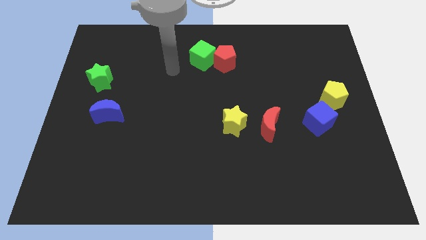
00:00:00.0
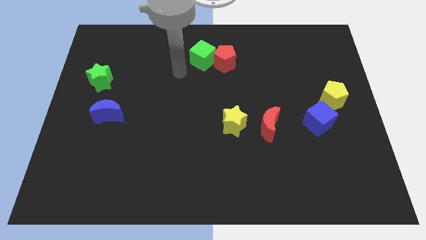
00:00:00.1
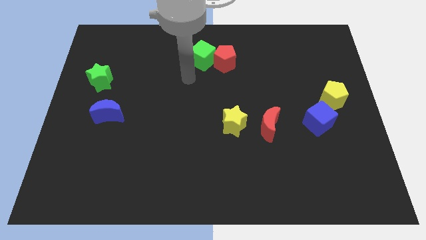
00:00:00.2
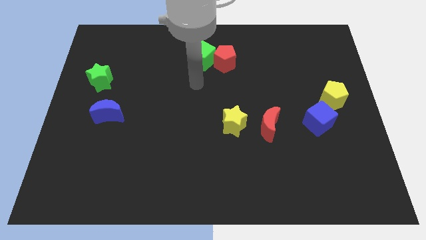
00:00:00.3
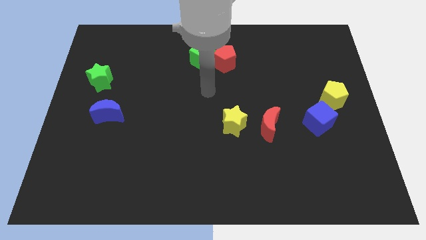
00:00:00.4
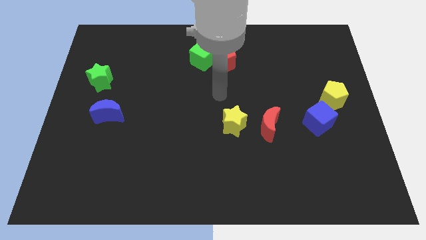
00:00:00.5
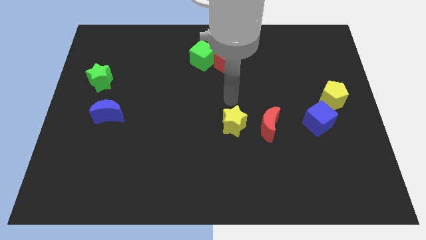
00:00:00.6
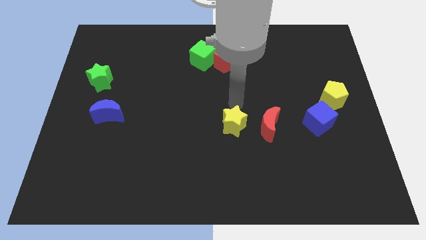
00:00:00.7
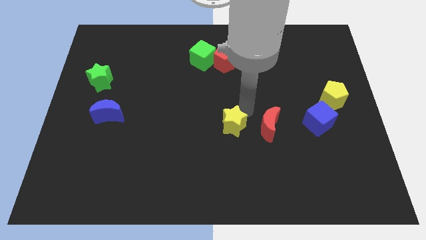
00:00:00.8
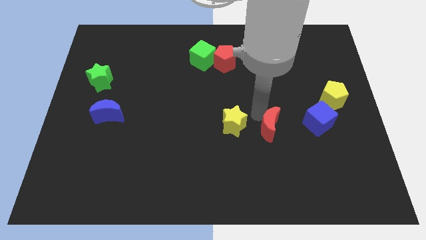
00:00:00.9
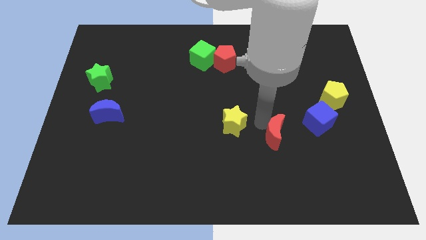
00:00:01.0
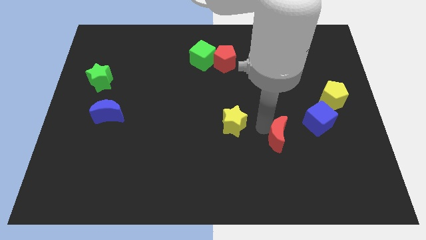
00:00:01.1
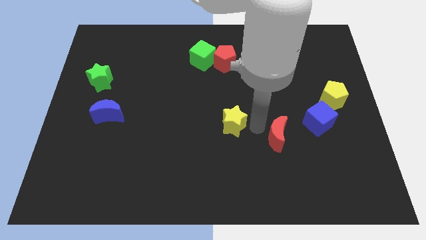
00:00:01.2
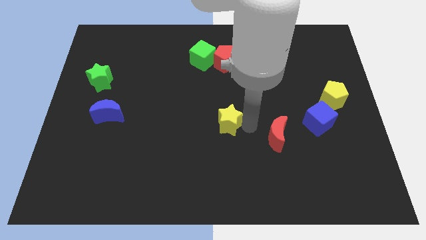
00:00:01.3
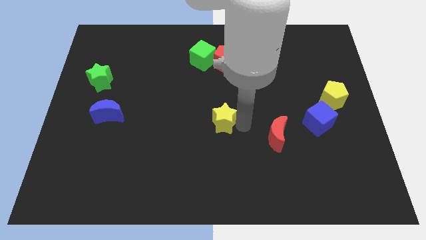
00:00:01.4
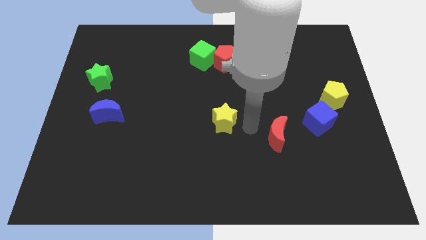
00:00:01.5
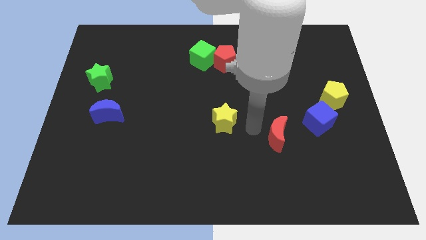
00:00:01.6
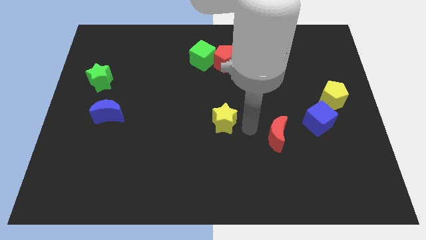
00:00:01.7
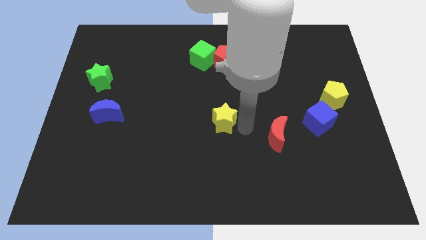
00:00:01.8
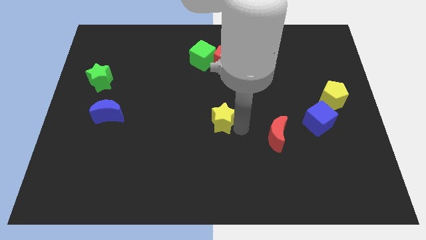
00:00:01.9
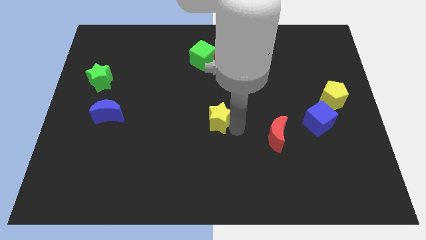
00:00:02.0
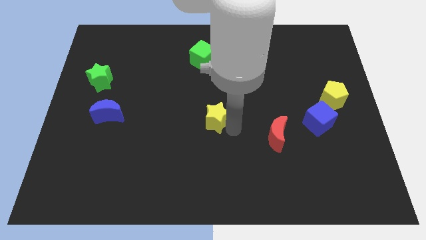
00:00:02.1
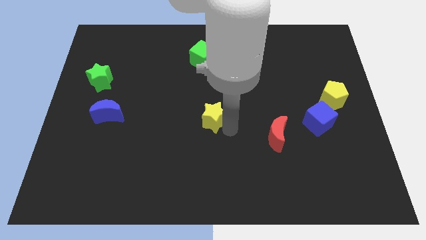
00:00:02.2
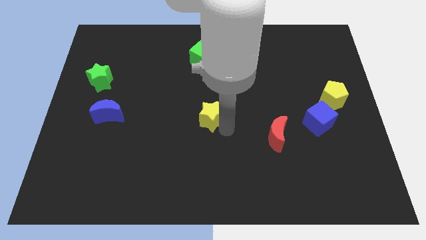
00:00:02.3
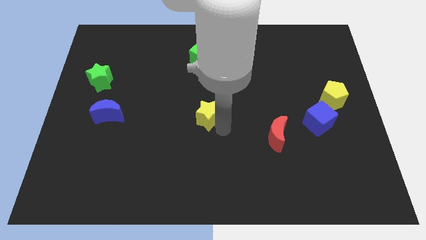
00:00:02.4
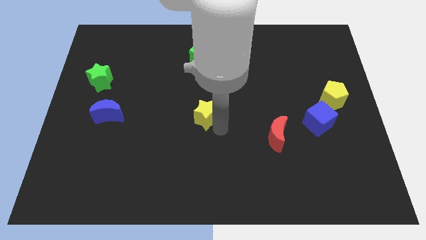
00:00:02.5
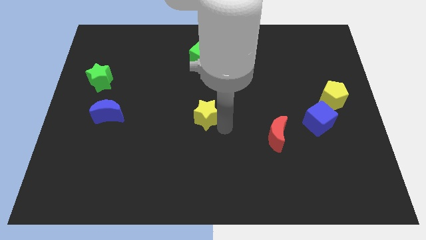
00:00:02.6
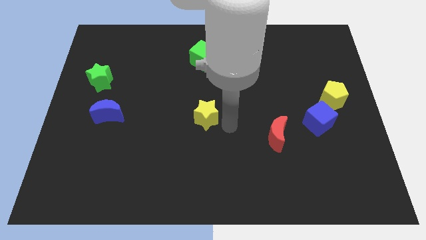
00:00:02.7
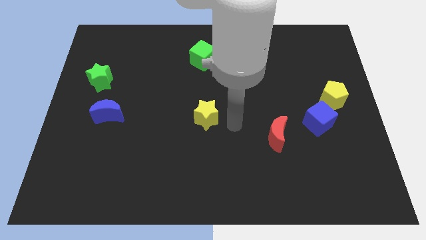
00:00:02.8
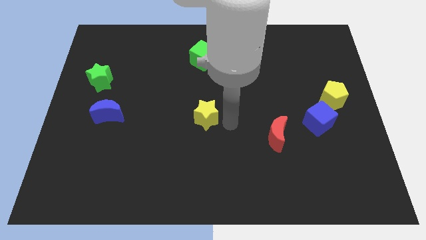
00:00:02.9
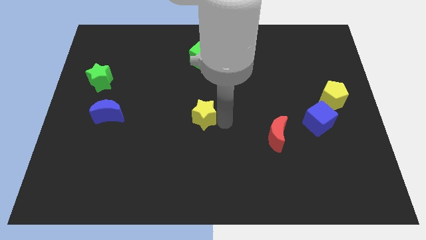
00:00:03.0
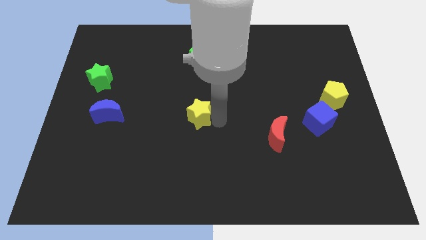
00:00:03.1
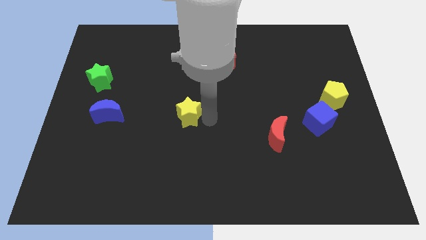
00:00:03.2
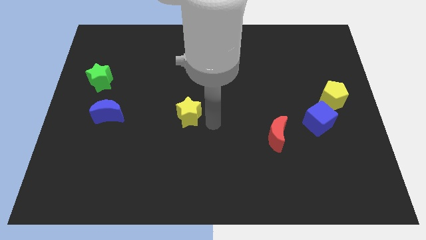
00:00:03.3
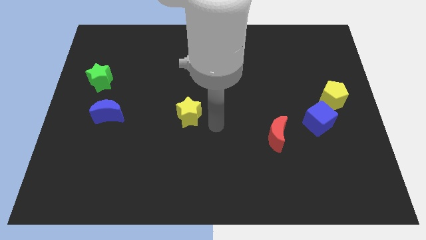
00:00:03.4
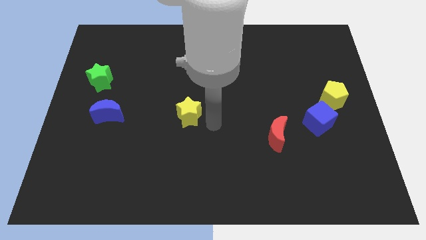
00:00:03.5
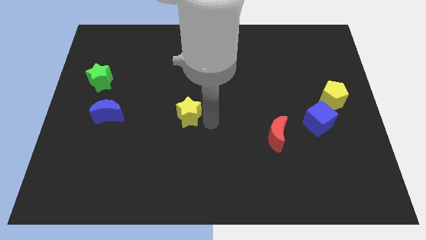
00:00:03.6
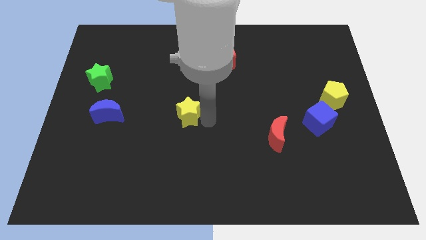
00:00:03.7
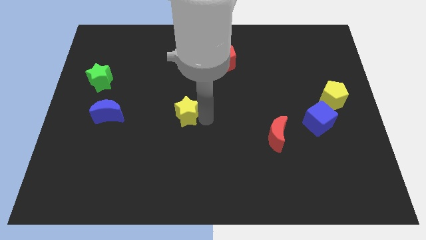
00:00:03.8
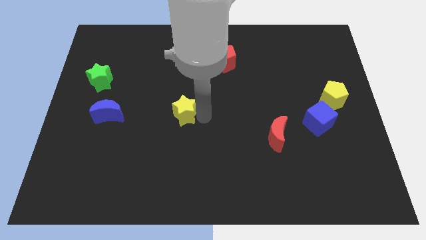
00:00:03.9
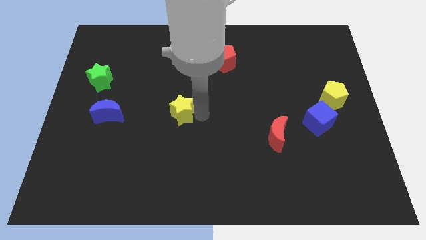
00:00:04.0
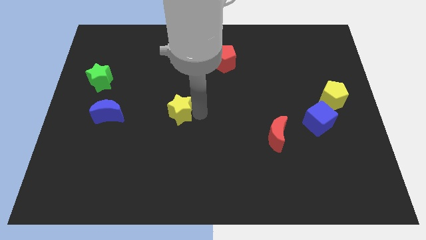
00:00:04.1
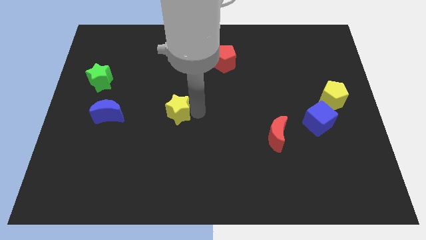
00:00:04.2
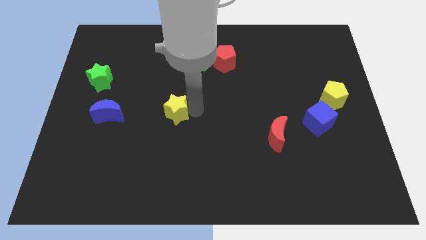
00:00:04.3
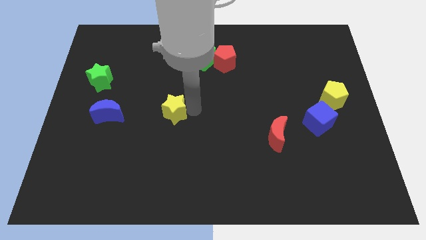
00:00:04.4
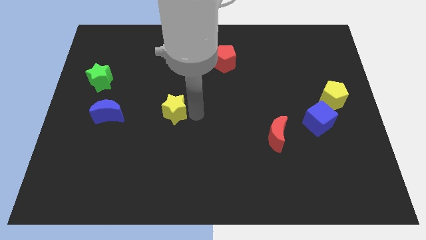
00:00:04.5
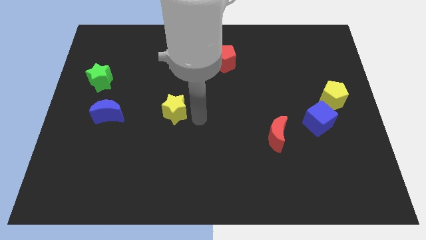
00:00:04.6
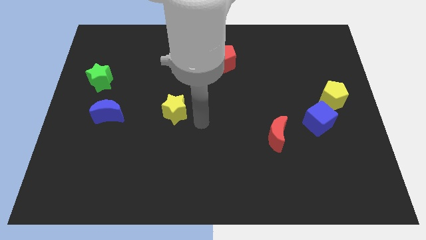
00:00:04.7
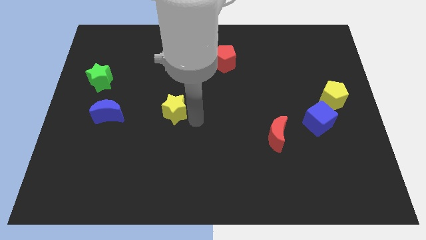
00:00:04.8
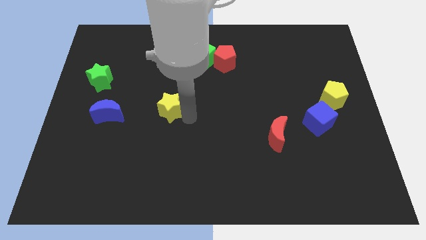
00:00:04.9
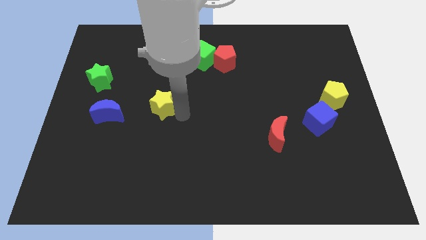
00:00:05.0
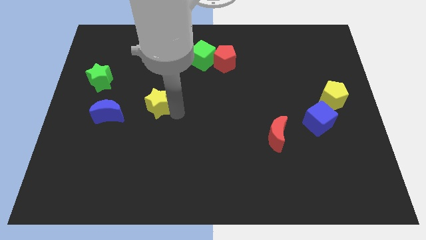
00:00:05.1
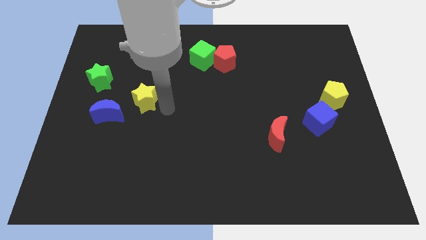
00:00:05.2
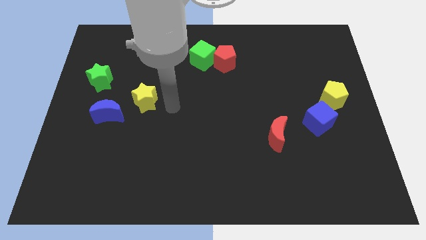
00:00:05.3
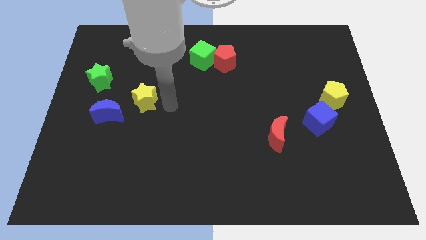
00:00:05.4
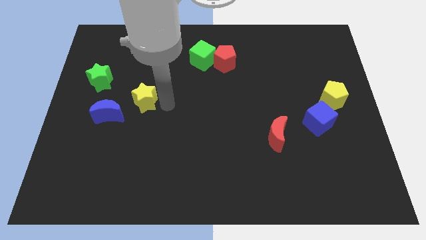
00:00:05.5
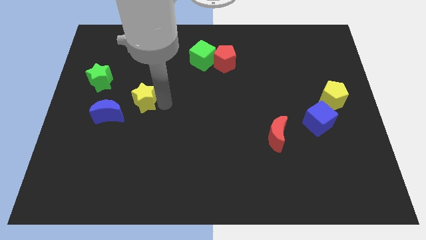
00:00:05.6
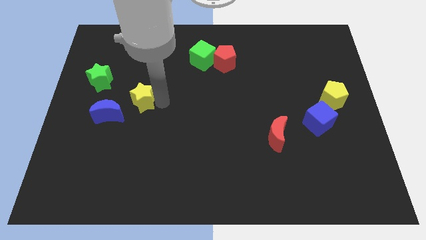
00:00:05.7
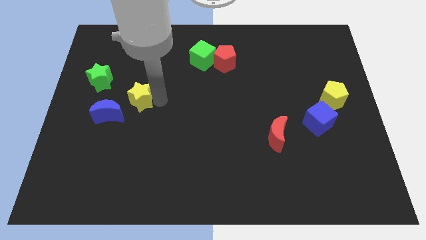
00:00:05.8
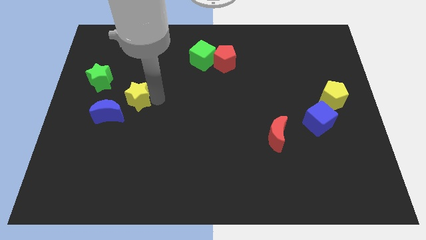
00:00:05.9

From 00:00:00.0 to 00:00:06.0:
put the yellow star to the bottom right of the green star

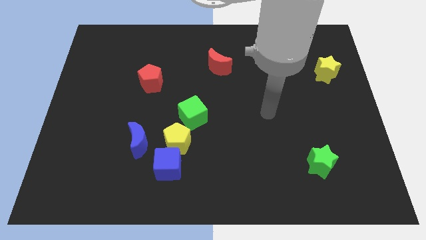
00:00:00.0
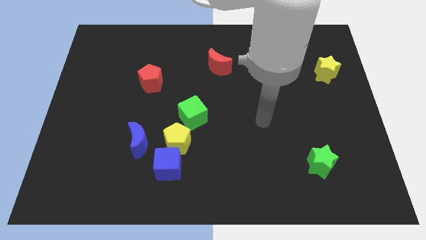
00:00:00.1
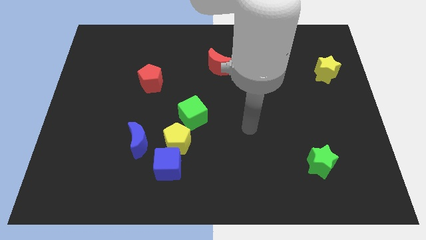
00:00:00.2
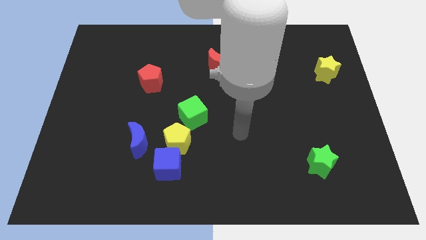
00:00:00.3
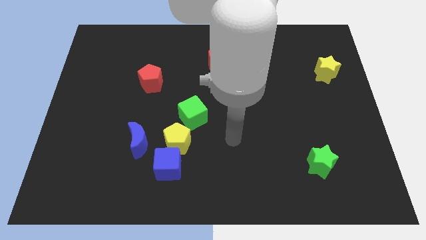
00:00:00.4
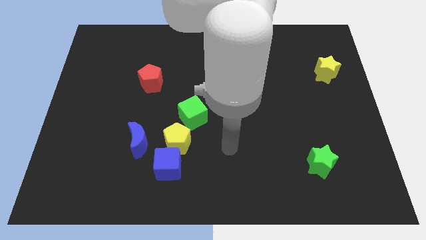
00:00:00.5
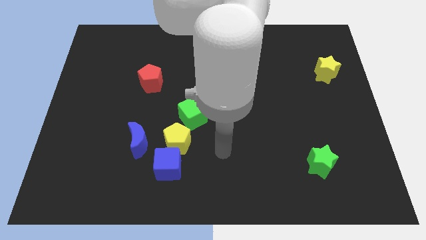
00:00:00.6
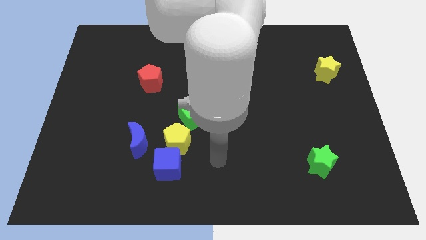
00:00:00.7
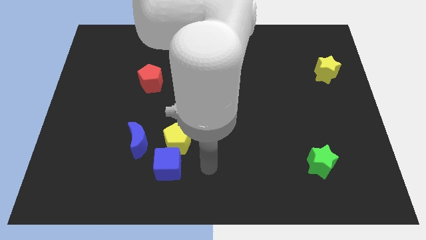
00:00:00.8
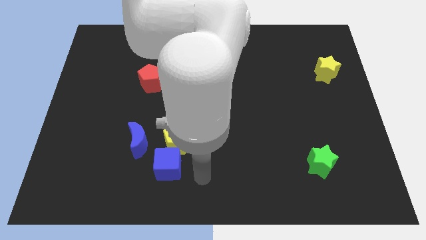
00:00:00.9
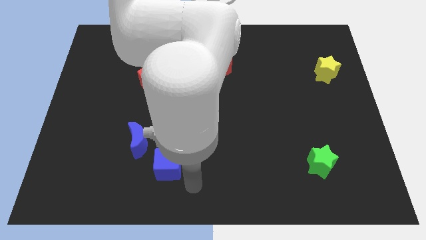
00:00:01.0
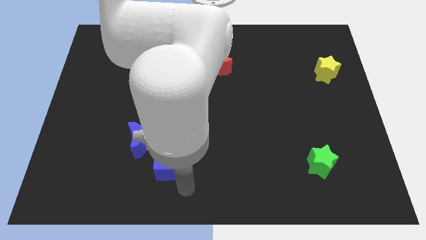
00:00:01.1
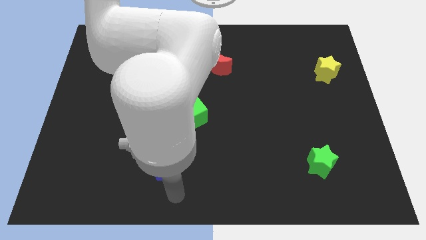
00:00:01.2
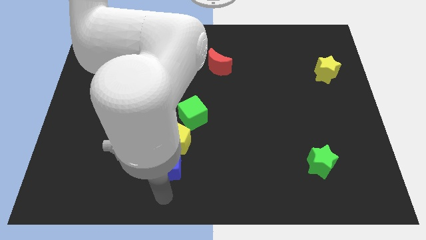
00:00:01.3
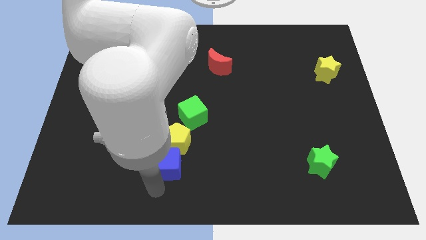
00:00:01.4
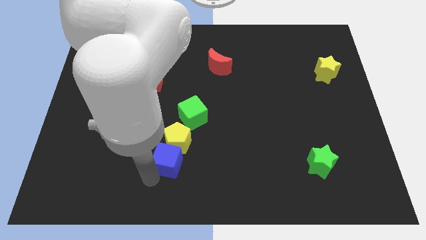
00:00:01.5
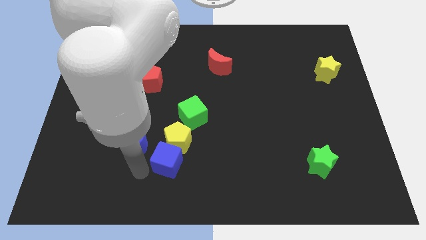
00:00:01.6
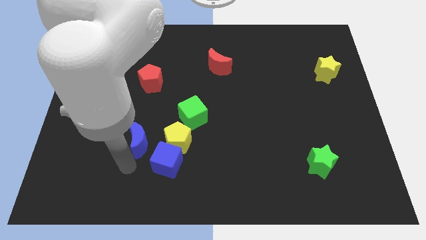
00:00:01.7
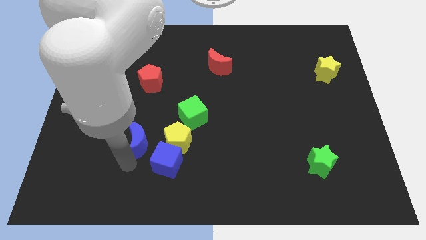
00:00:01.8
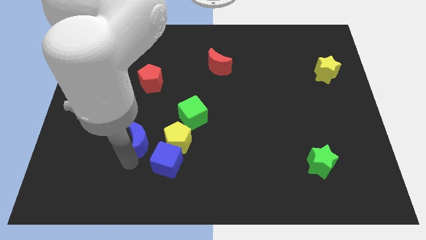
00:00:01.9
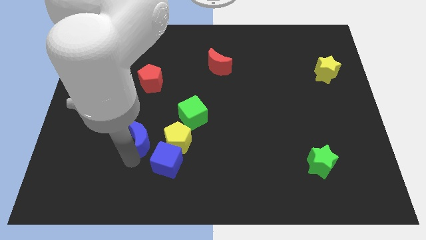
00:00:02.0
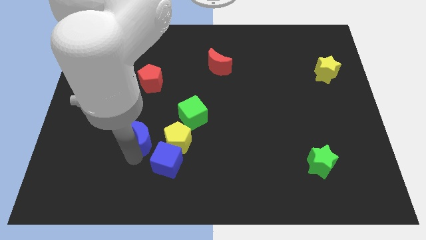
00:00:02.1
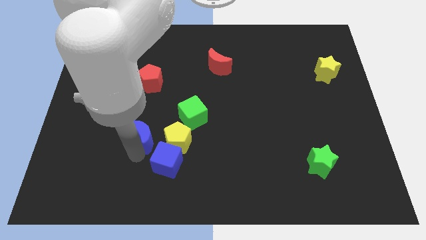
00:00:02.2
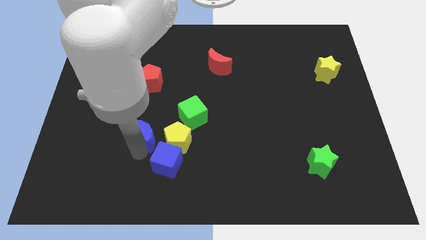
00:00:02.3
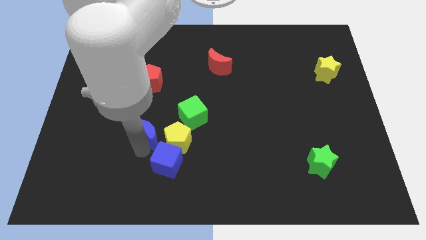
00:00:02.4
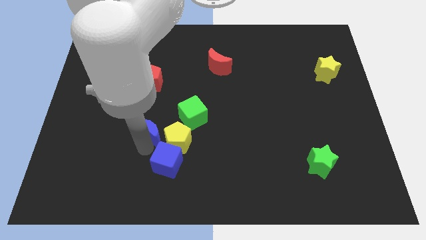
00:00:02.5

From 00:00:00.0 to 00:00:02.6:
move the blue moon left of the green cube
